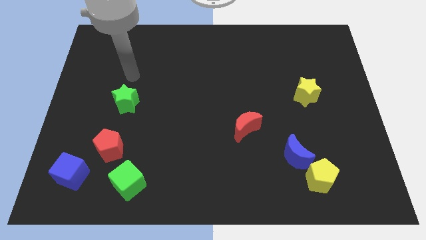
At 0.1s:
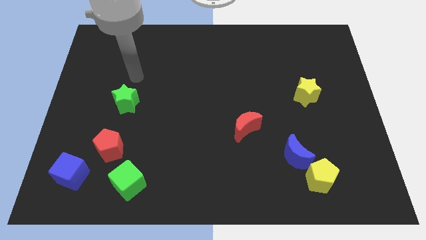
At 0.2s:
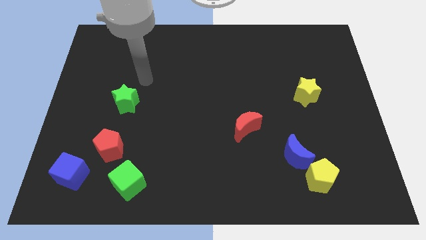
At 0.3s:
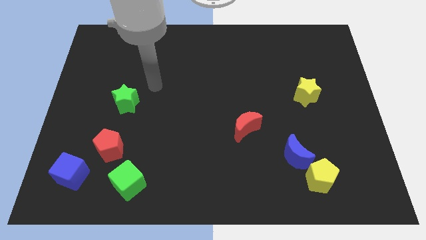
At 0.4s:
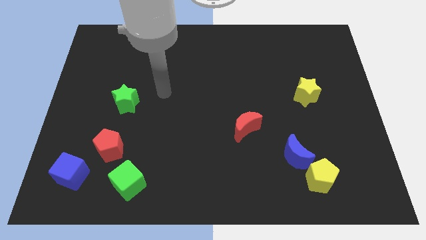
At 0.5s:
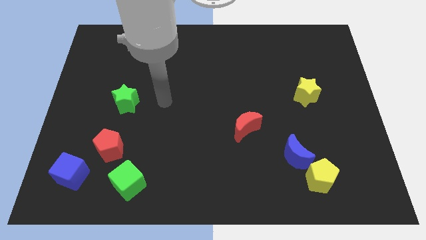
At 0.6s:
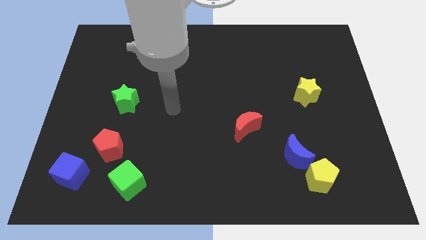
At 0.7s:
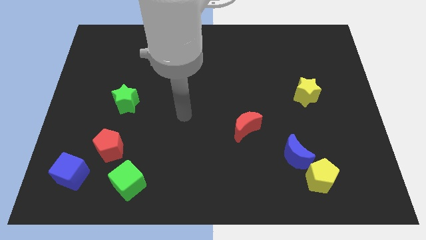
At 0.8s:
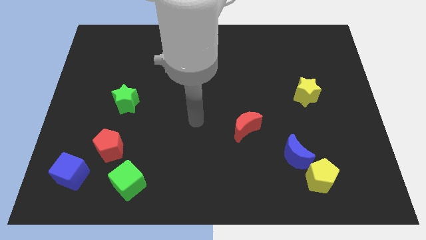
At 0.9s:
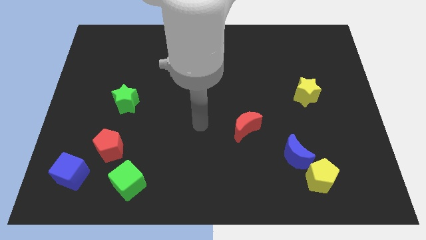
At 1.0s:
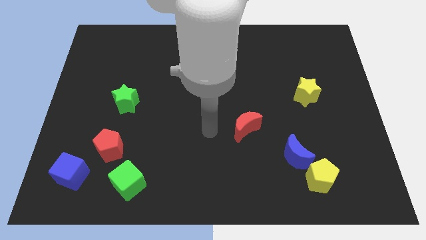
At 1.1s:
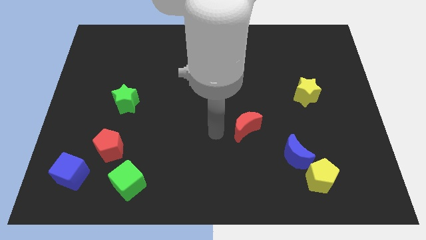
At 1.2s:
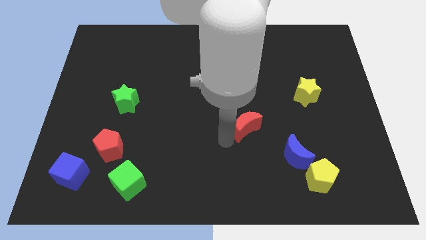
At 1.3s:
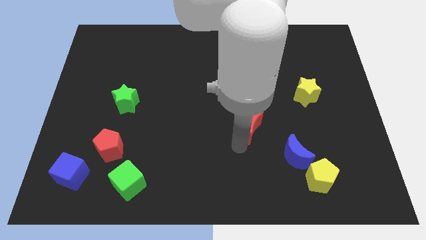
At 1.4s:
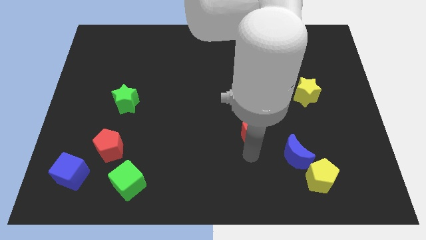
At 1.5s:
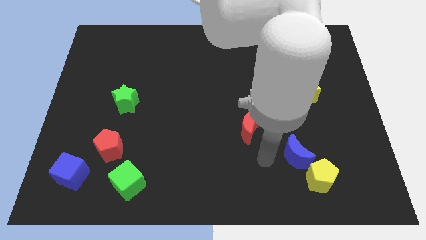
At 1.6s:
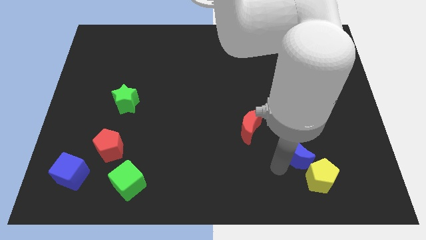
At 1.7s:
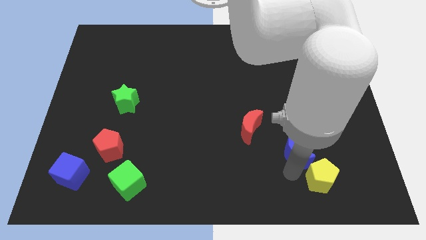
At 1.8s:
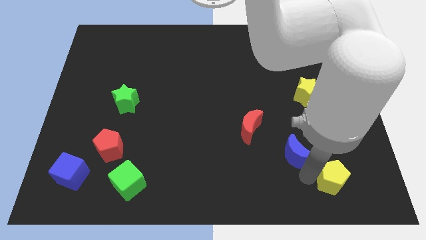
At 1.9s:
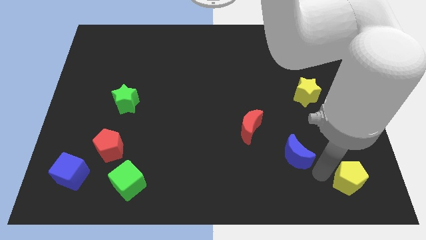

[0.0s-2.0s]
pull the blue moon apart from the yellow pentagon

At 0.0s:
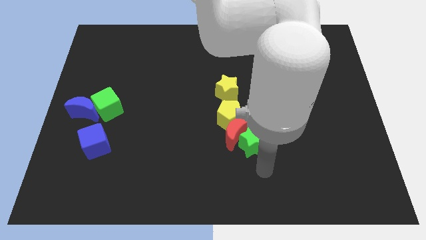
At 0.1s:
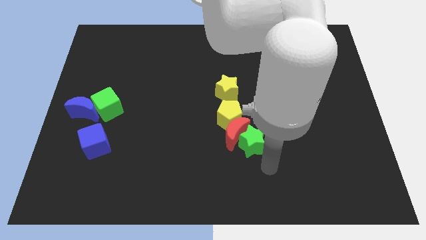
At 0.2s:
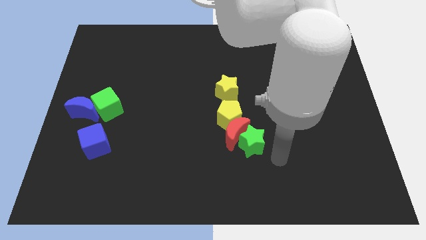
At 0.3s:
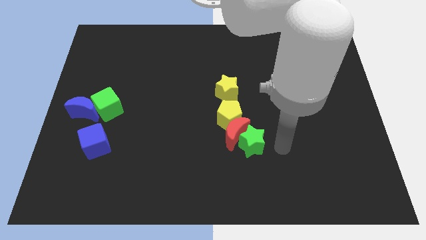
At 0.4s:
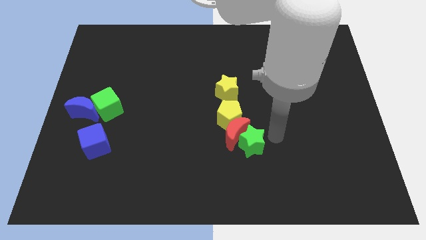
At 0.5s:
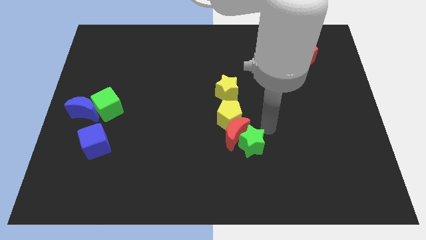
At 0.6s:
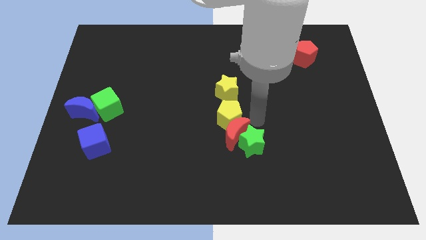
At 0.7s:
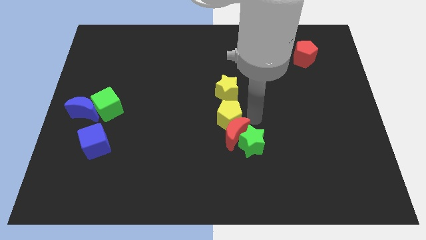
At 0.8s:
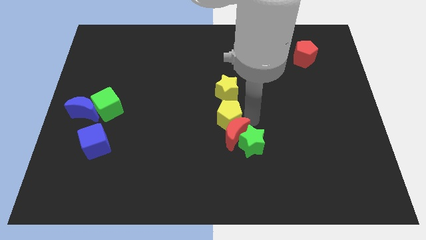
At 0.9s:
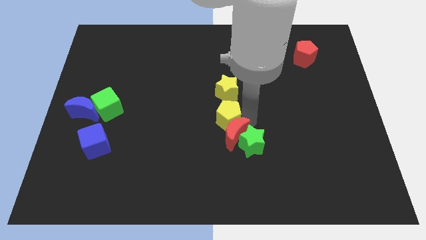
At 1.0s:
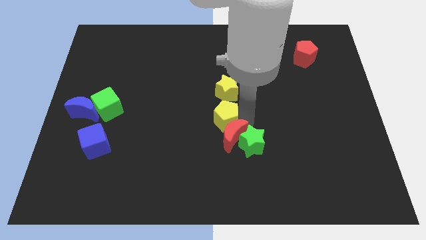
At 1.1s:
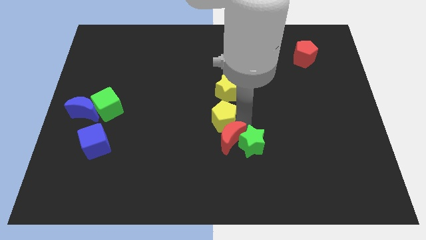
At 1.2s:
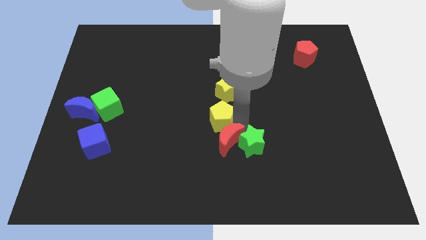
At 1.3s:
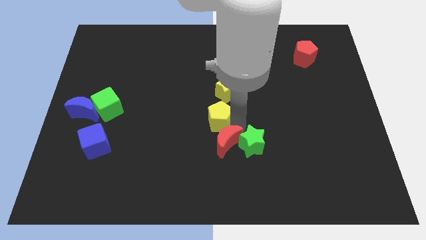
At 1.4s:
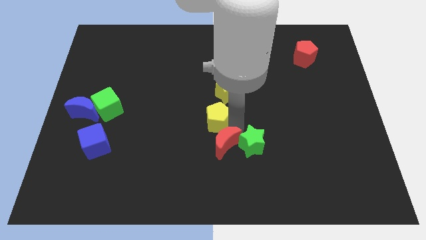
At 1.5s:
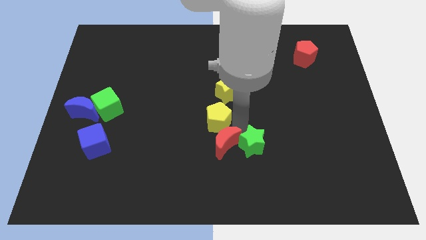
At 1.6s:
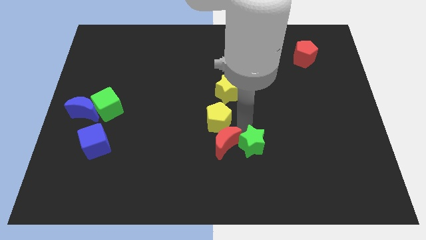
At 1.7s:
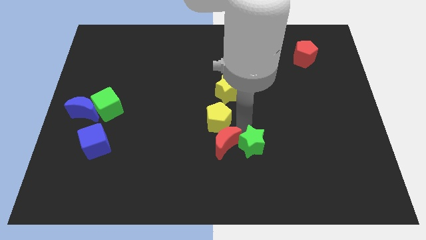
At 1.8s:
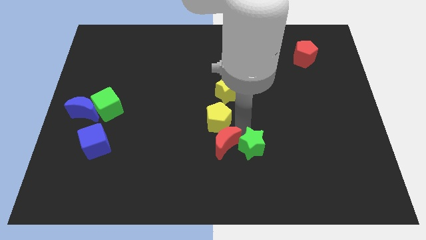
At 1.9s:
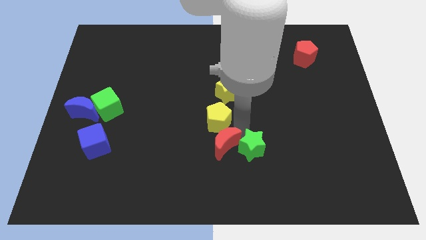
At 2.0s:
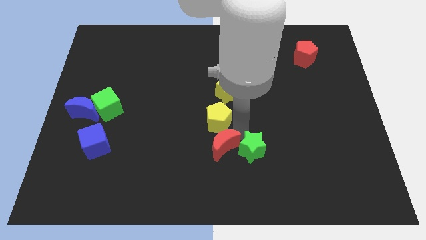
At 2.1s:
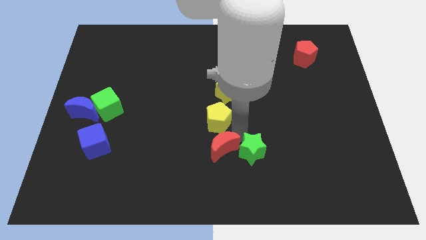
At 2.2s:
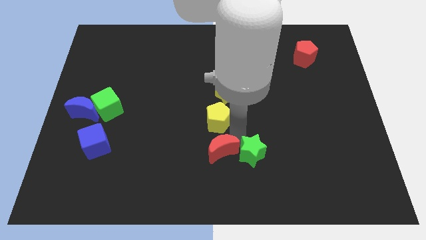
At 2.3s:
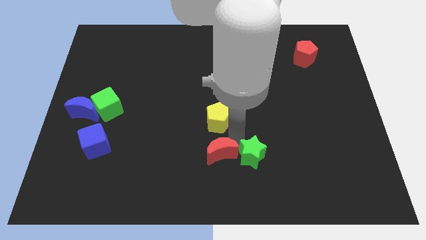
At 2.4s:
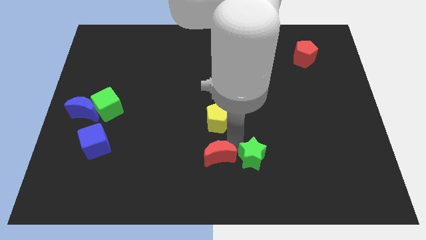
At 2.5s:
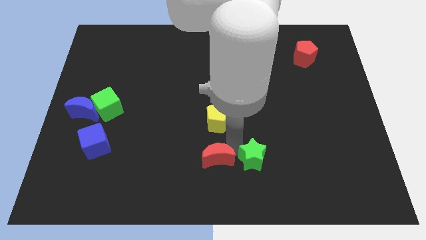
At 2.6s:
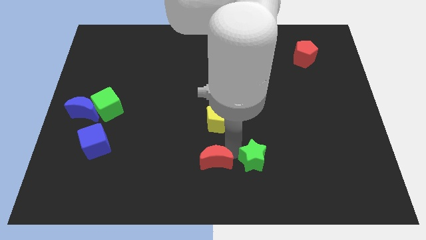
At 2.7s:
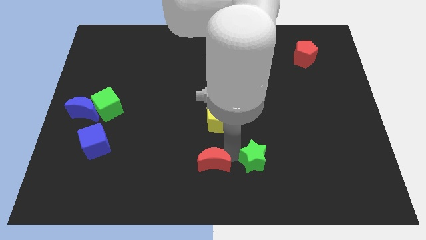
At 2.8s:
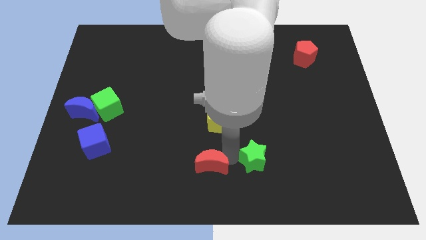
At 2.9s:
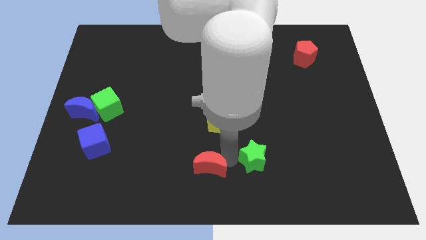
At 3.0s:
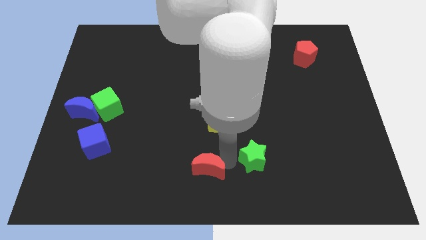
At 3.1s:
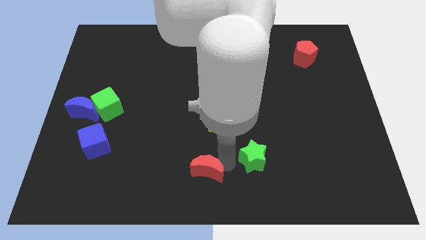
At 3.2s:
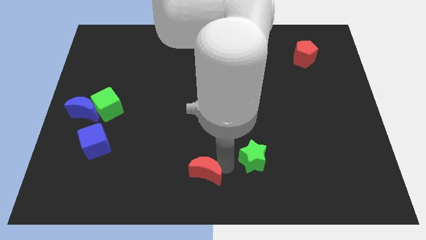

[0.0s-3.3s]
pull the red moon apart from the green star and yellow pentagon

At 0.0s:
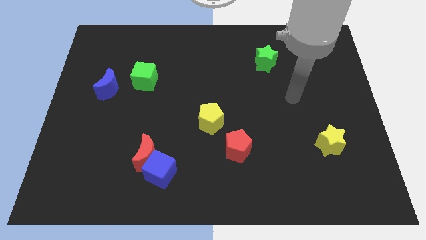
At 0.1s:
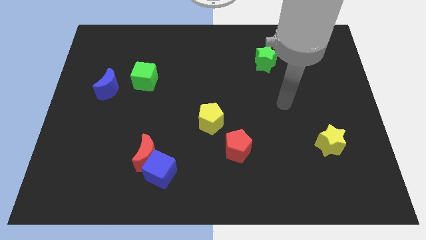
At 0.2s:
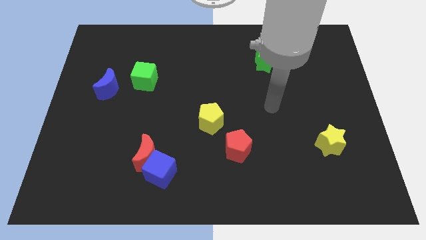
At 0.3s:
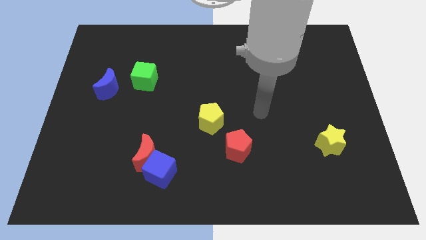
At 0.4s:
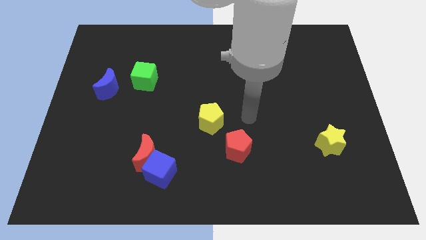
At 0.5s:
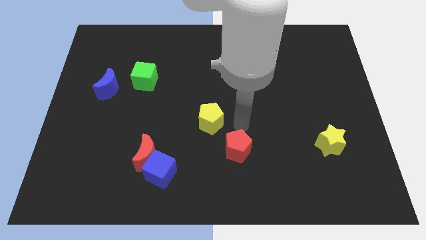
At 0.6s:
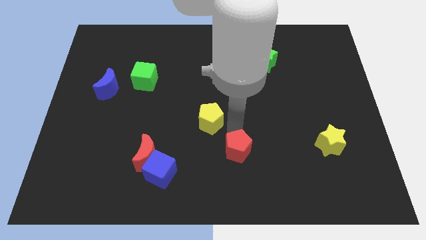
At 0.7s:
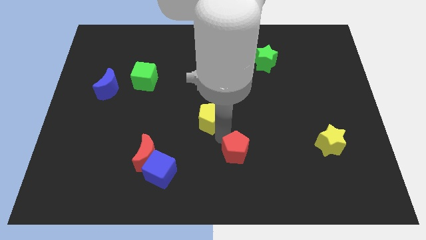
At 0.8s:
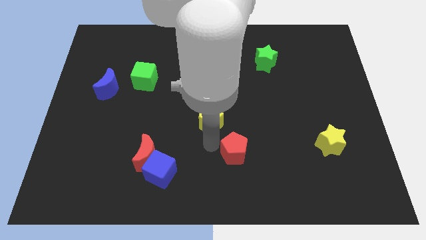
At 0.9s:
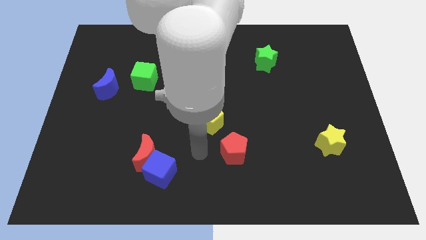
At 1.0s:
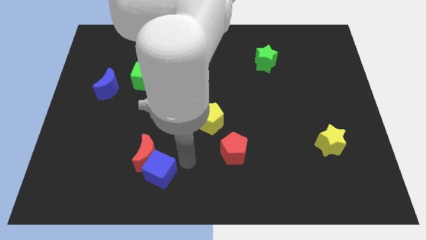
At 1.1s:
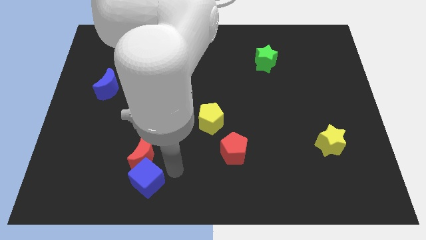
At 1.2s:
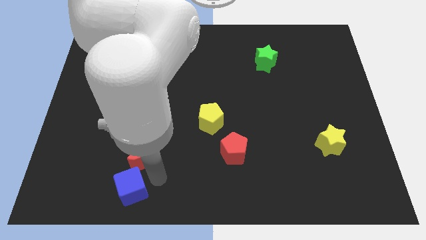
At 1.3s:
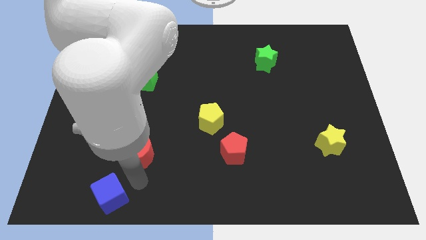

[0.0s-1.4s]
separate the red moon from the blue cube

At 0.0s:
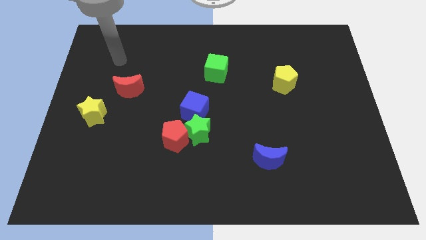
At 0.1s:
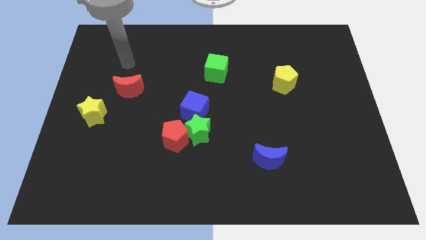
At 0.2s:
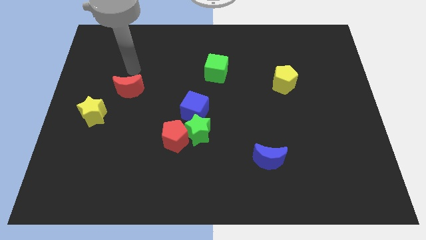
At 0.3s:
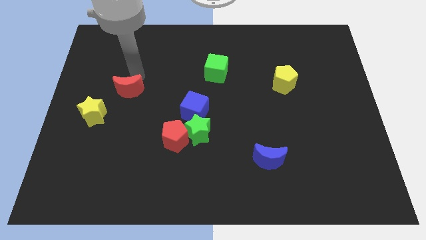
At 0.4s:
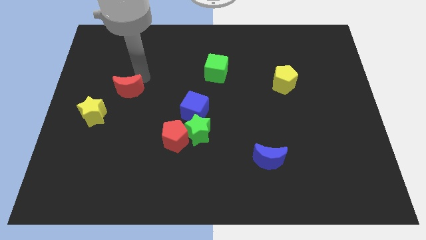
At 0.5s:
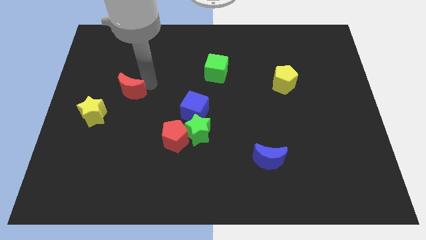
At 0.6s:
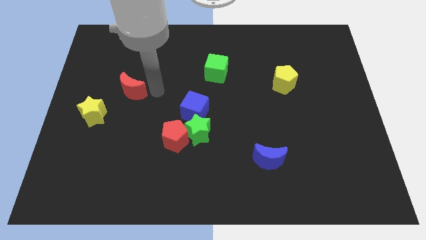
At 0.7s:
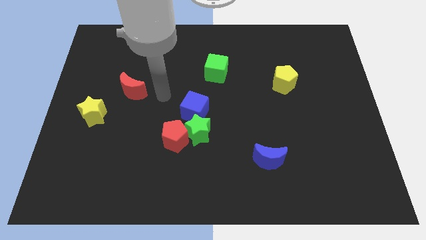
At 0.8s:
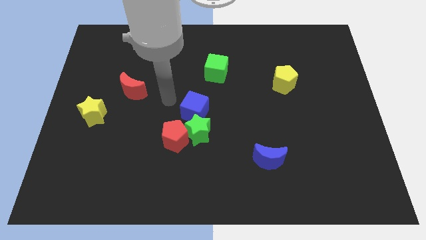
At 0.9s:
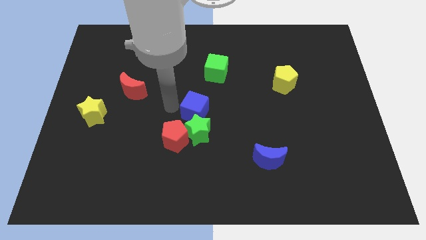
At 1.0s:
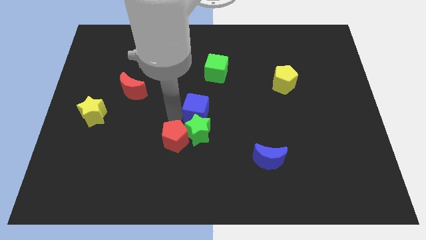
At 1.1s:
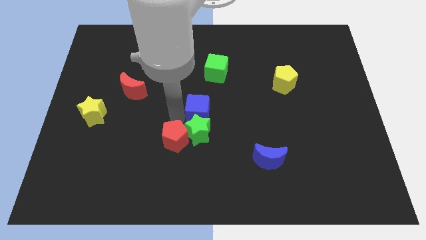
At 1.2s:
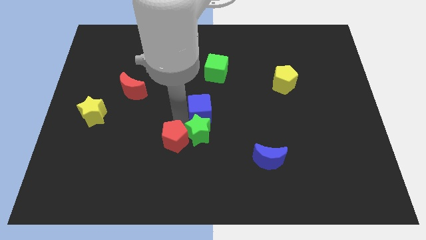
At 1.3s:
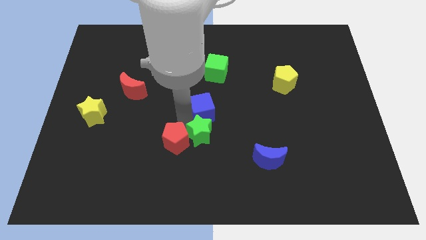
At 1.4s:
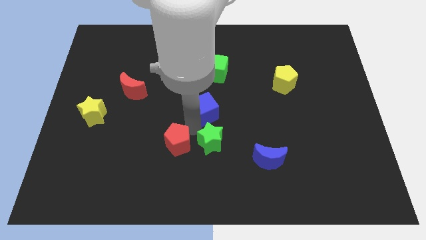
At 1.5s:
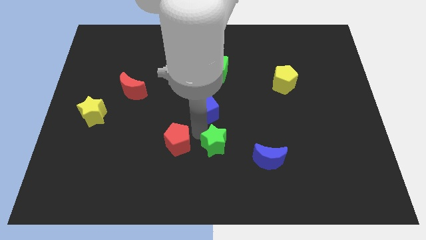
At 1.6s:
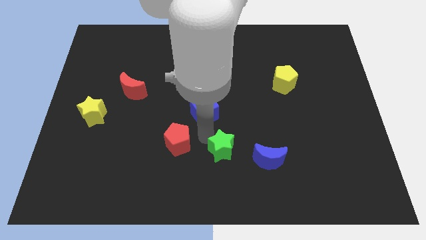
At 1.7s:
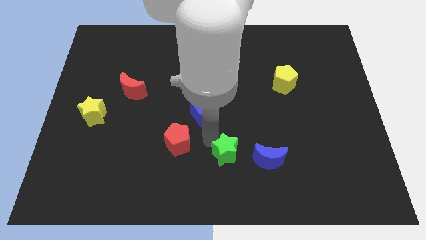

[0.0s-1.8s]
move the green star away from the red pentagon and blue cube

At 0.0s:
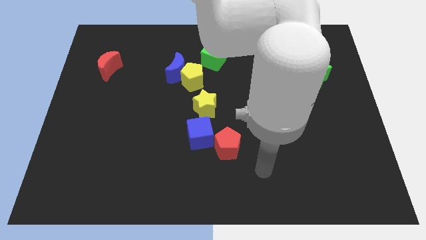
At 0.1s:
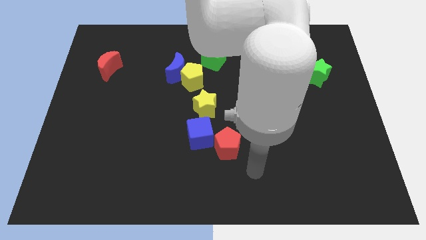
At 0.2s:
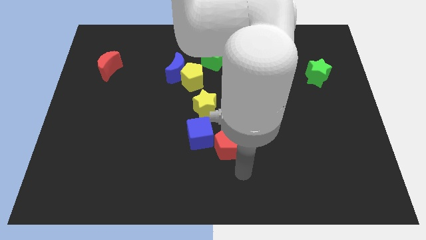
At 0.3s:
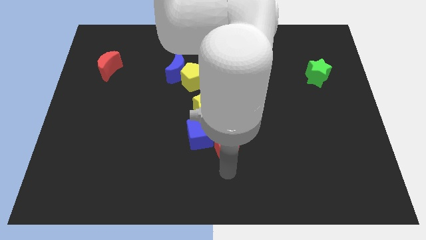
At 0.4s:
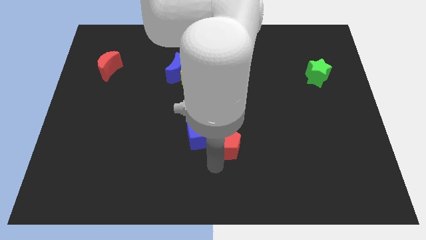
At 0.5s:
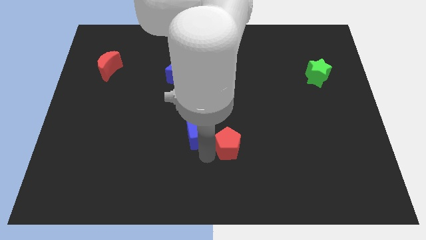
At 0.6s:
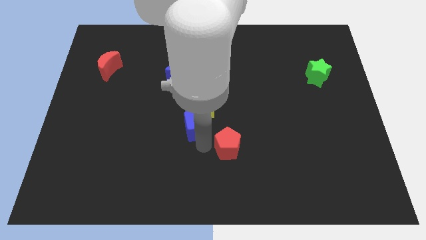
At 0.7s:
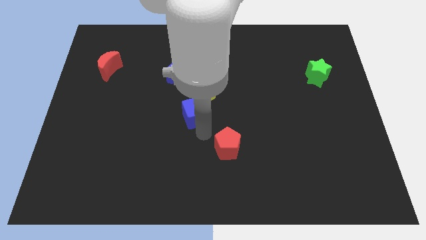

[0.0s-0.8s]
pull the red pentagon apart from the blue cube
